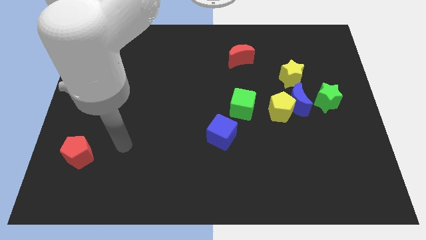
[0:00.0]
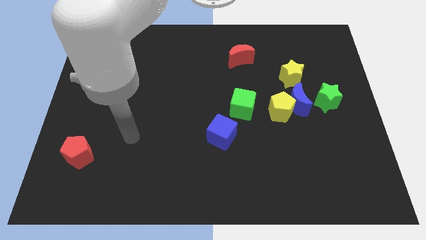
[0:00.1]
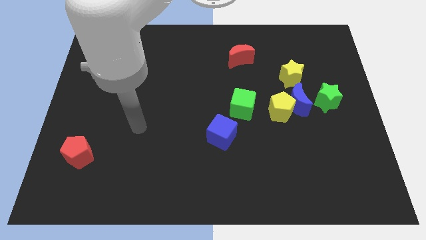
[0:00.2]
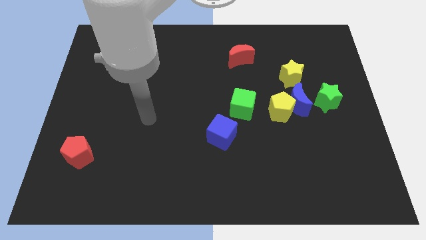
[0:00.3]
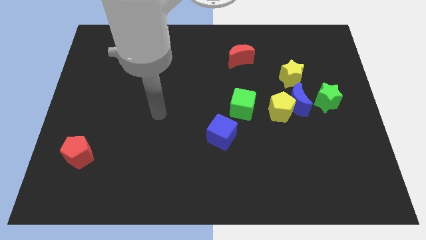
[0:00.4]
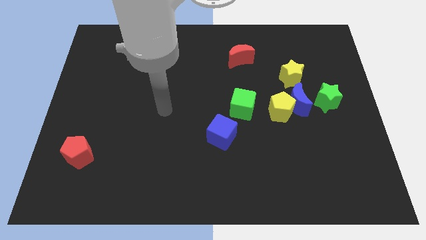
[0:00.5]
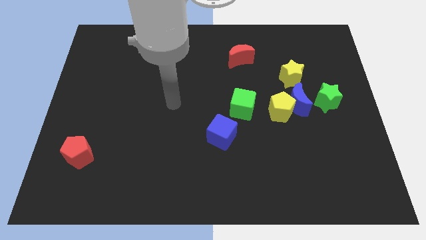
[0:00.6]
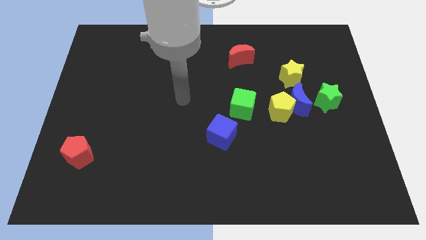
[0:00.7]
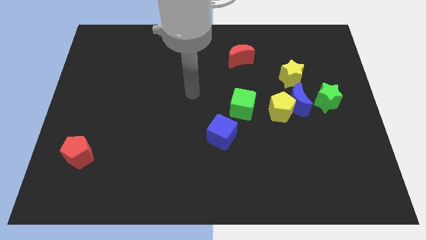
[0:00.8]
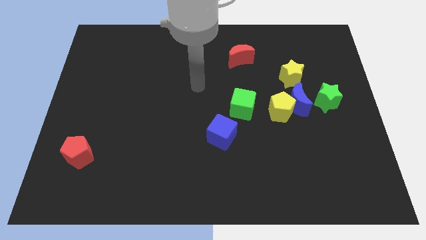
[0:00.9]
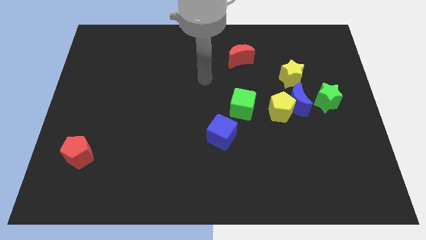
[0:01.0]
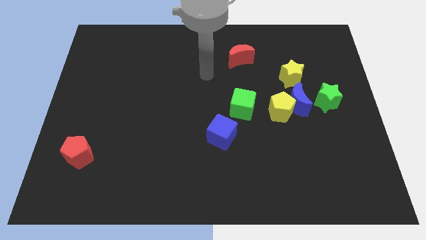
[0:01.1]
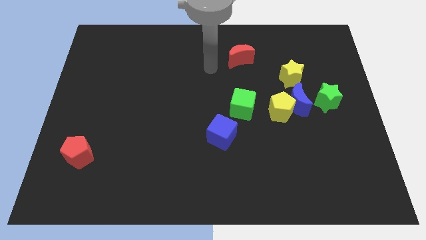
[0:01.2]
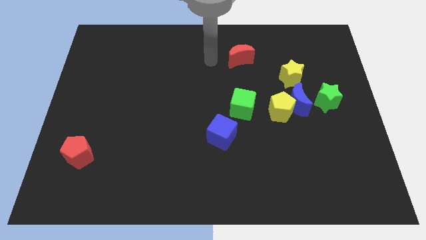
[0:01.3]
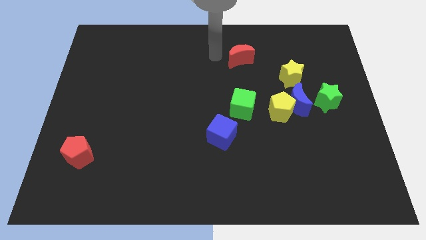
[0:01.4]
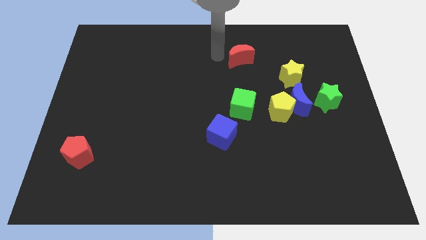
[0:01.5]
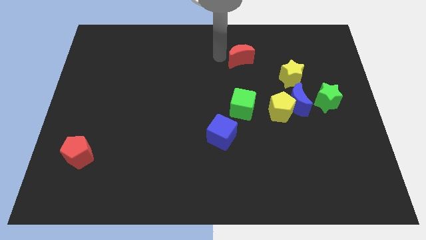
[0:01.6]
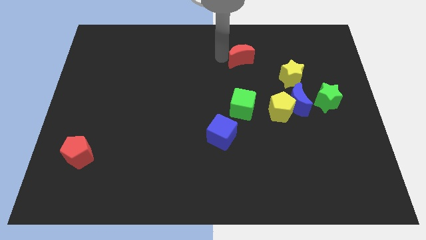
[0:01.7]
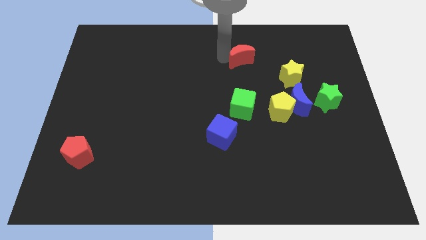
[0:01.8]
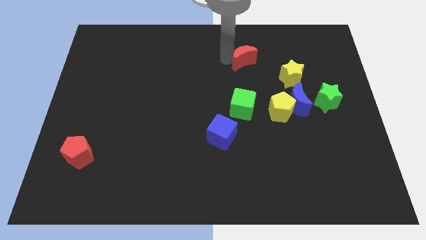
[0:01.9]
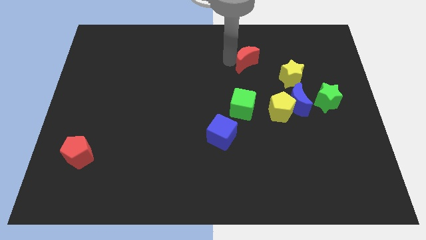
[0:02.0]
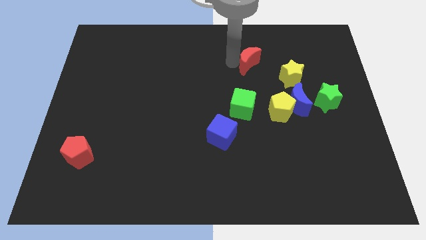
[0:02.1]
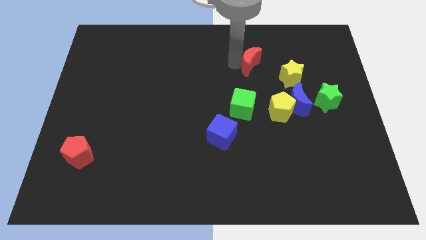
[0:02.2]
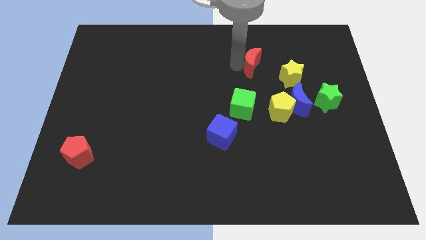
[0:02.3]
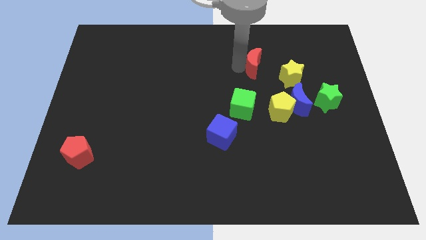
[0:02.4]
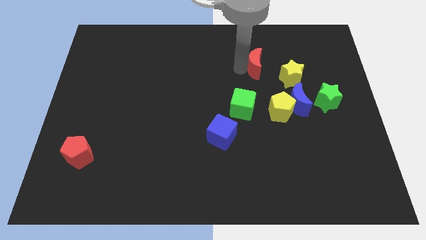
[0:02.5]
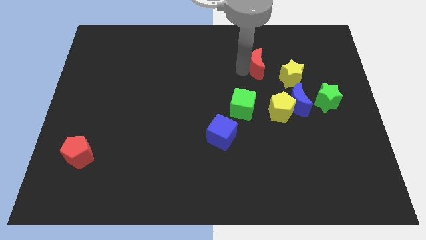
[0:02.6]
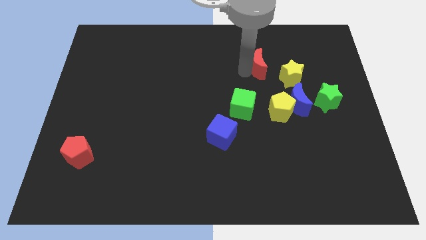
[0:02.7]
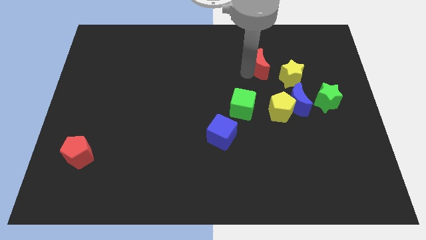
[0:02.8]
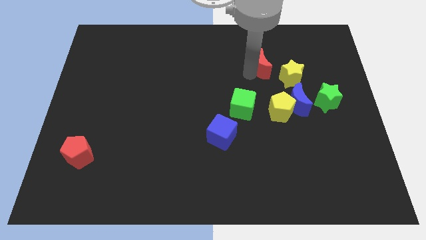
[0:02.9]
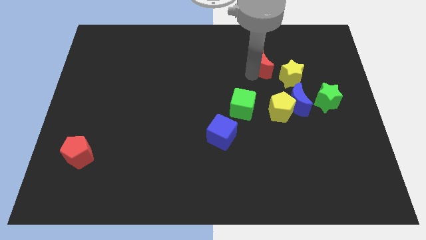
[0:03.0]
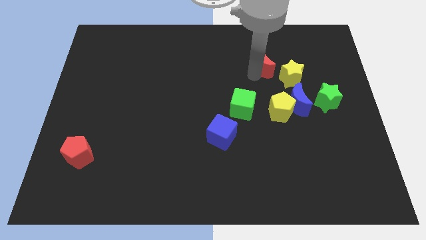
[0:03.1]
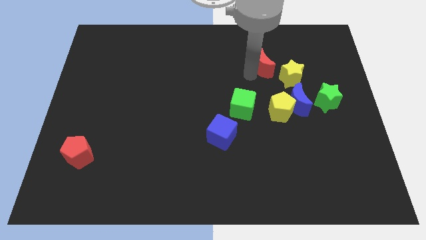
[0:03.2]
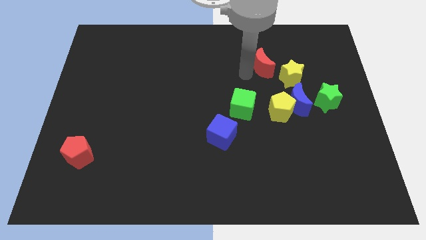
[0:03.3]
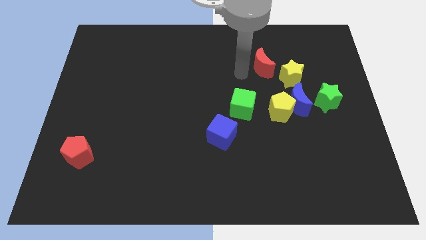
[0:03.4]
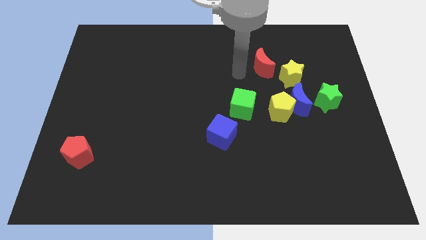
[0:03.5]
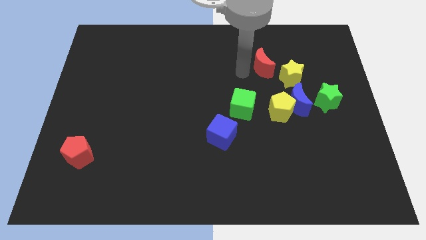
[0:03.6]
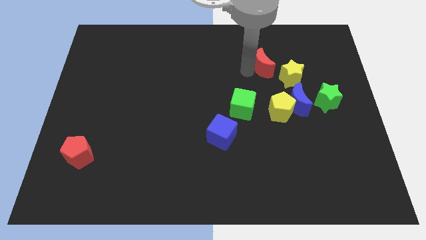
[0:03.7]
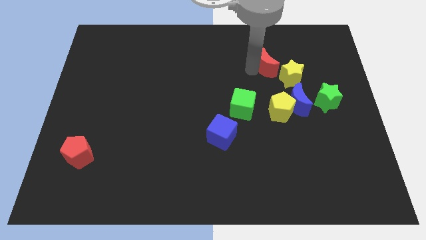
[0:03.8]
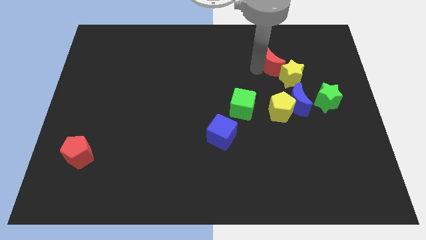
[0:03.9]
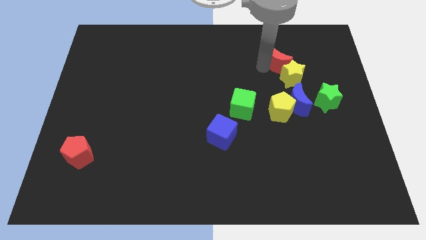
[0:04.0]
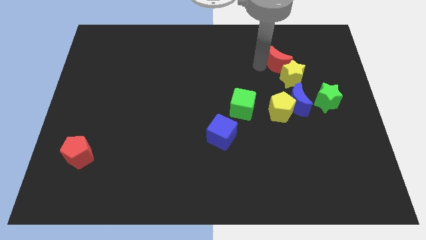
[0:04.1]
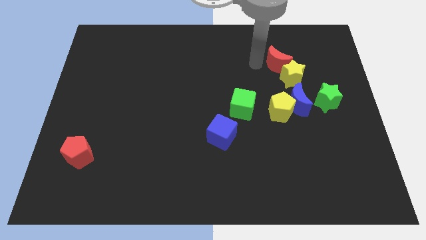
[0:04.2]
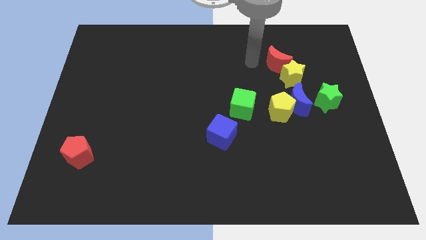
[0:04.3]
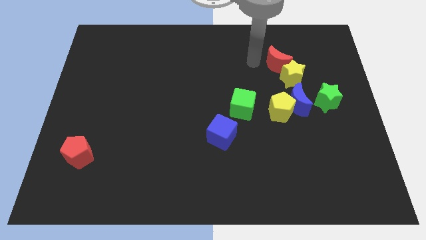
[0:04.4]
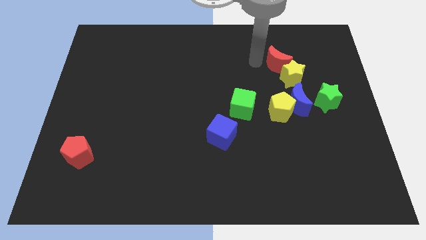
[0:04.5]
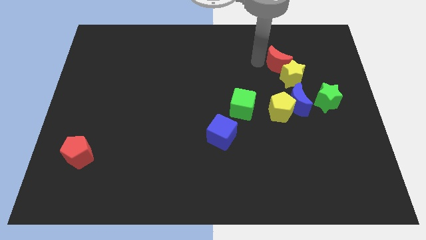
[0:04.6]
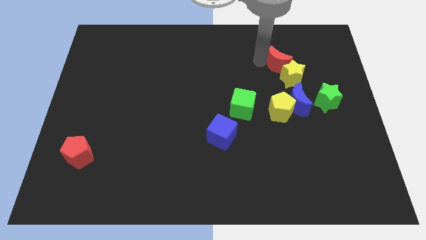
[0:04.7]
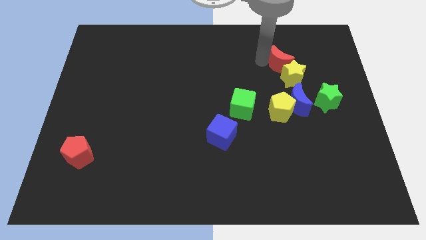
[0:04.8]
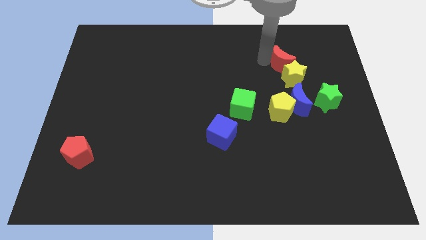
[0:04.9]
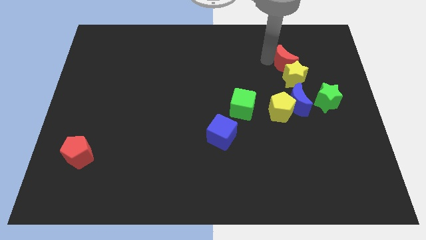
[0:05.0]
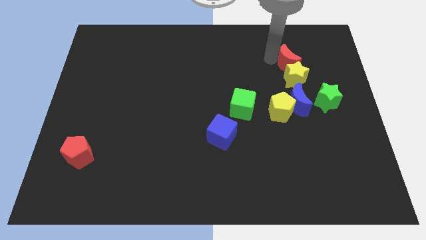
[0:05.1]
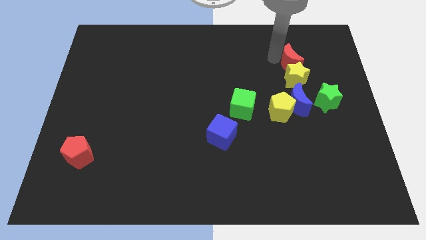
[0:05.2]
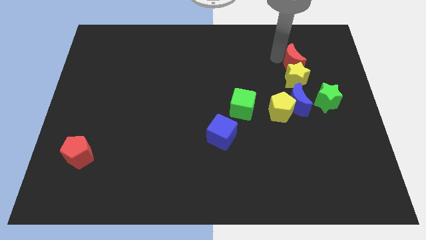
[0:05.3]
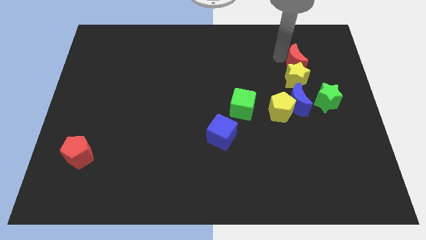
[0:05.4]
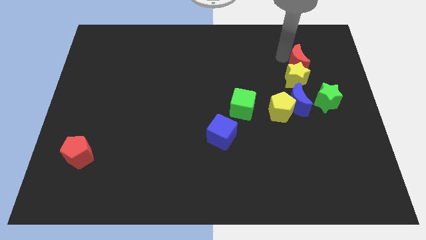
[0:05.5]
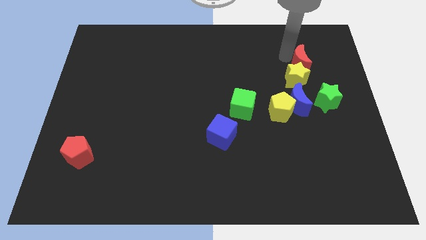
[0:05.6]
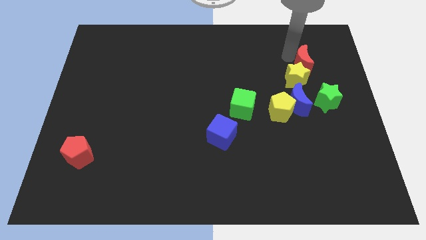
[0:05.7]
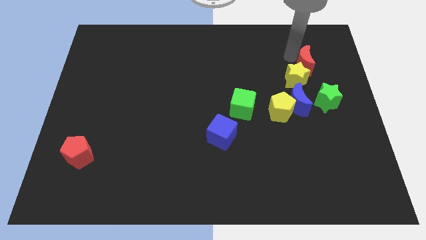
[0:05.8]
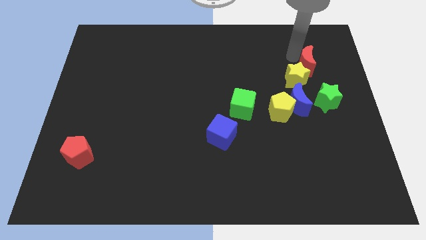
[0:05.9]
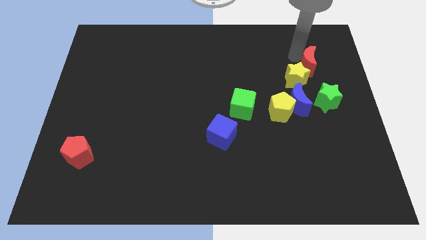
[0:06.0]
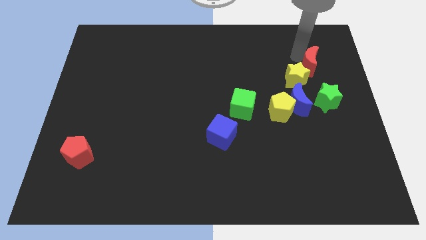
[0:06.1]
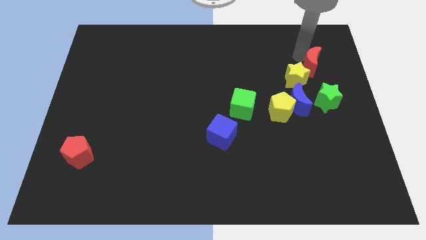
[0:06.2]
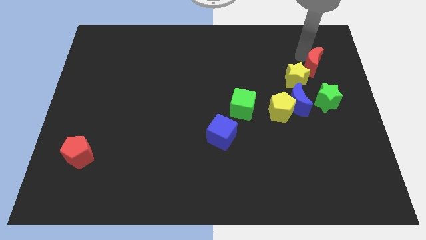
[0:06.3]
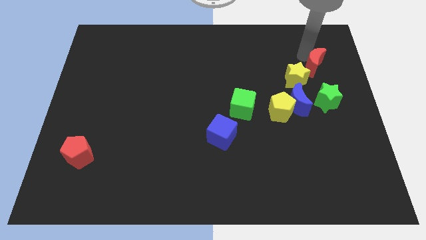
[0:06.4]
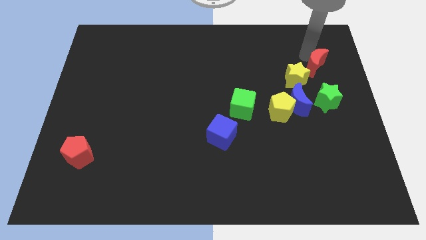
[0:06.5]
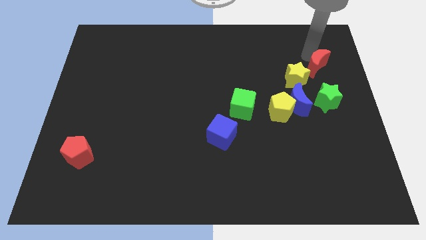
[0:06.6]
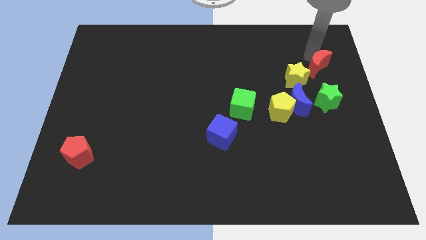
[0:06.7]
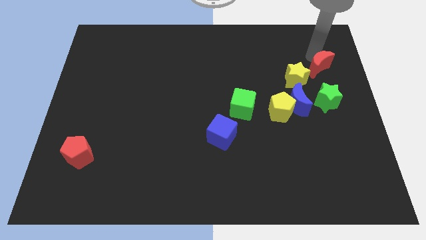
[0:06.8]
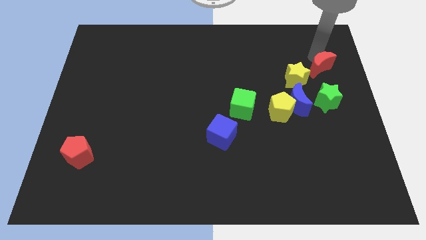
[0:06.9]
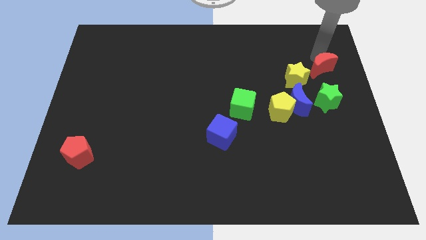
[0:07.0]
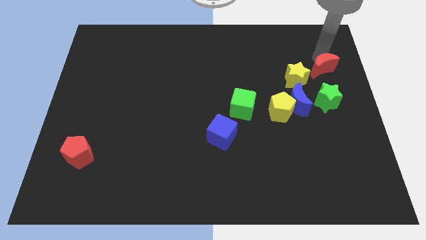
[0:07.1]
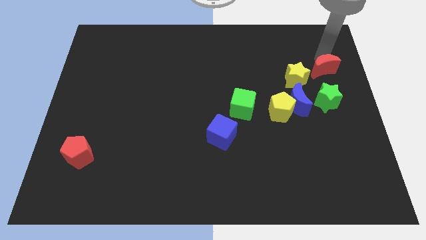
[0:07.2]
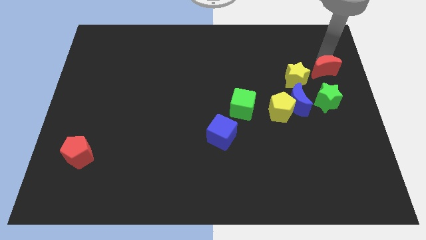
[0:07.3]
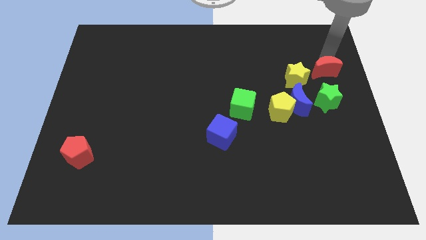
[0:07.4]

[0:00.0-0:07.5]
move the red moon to the right side
